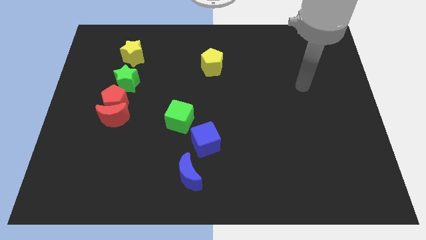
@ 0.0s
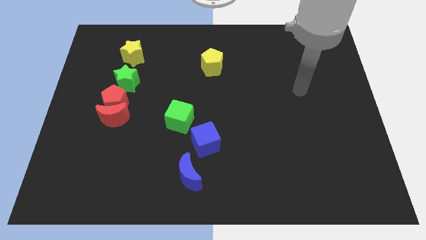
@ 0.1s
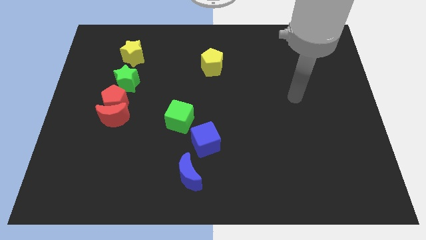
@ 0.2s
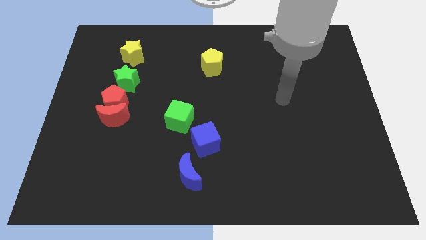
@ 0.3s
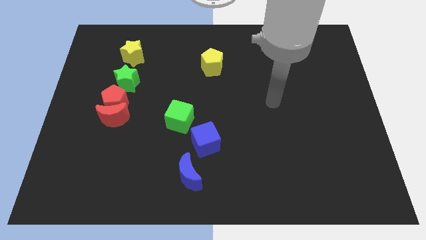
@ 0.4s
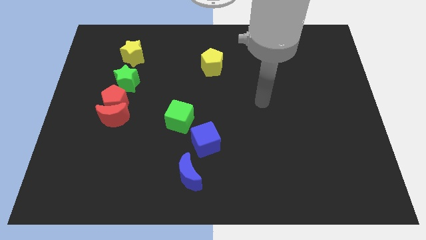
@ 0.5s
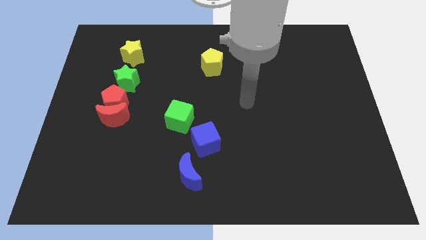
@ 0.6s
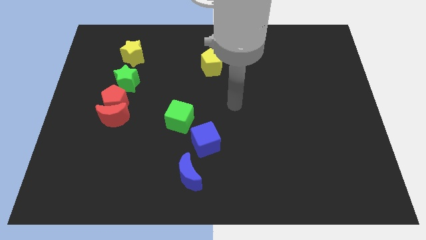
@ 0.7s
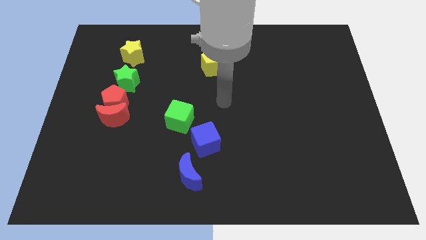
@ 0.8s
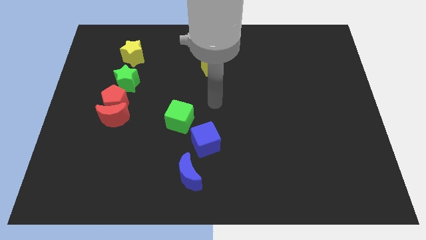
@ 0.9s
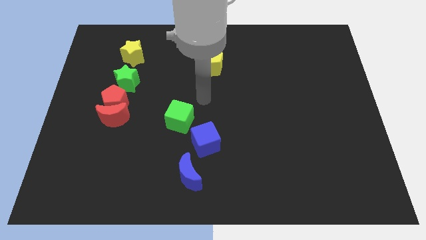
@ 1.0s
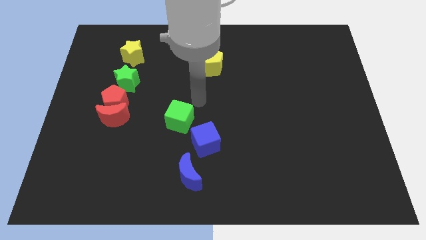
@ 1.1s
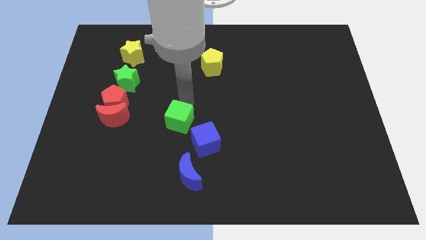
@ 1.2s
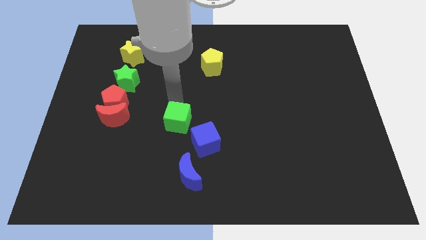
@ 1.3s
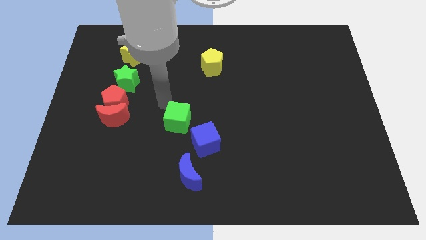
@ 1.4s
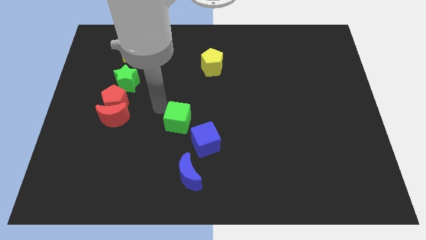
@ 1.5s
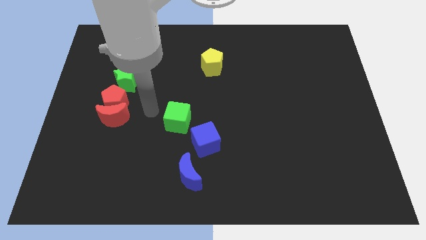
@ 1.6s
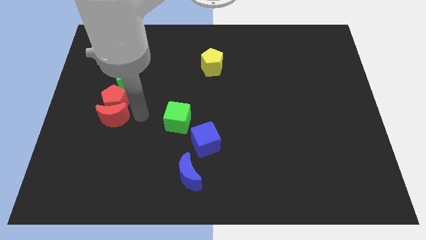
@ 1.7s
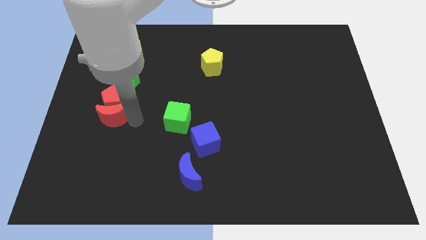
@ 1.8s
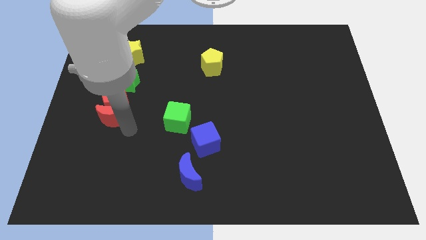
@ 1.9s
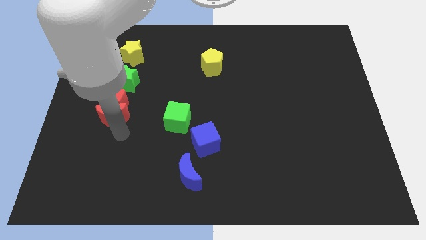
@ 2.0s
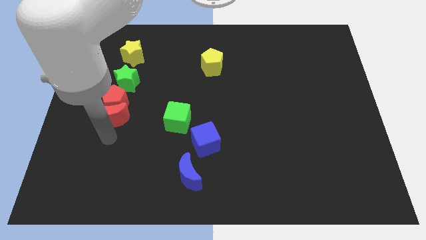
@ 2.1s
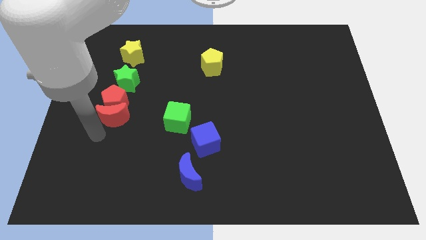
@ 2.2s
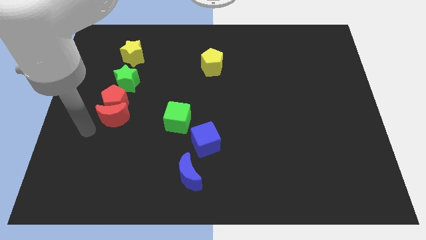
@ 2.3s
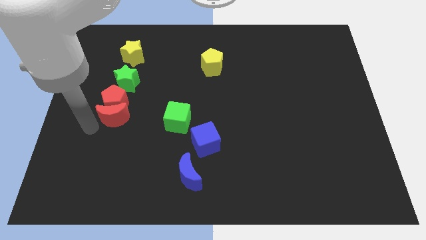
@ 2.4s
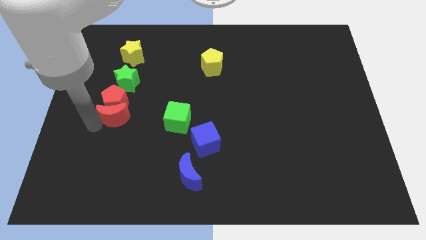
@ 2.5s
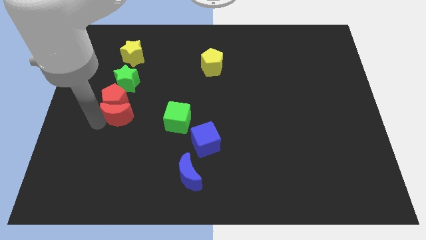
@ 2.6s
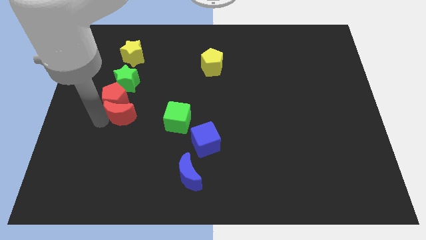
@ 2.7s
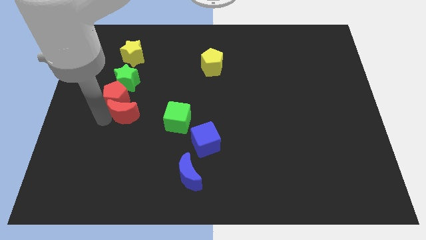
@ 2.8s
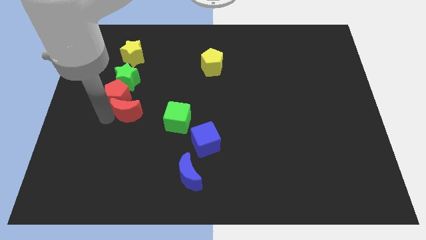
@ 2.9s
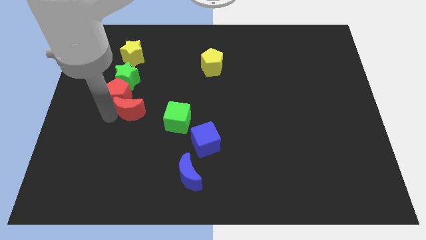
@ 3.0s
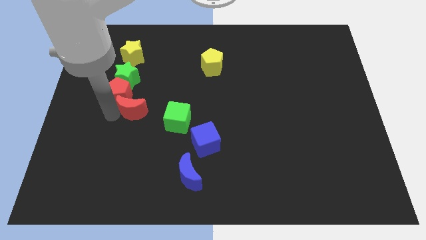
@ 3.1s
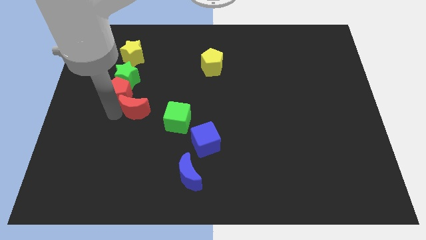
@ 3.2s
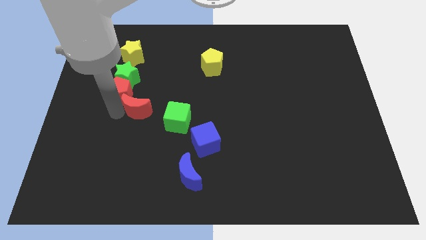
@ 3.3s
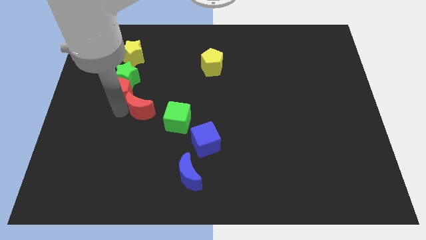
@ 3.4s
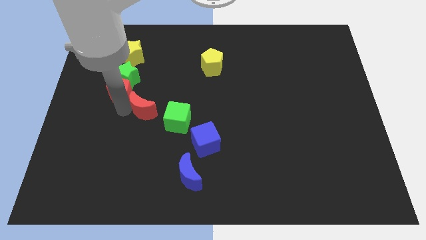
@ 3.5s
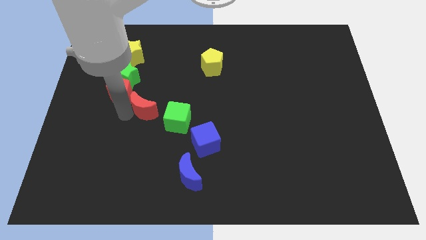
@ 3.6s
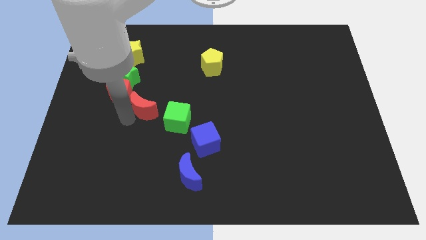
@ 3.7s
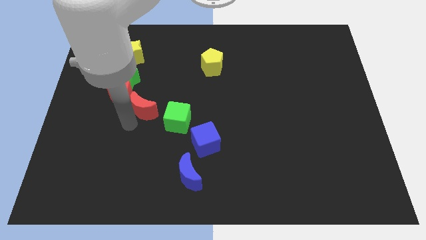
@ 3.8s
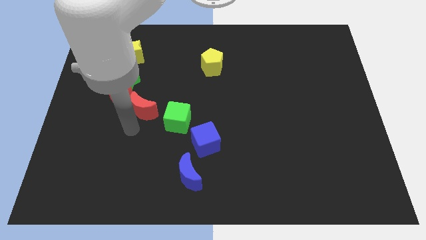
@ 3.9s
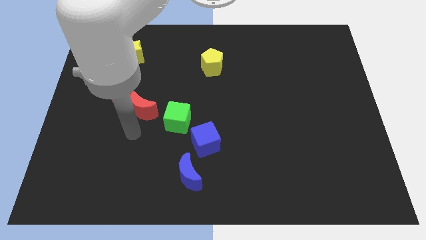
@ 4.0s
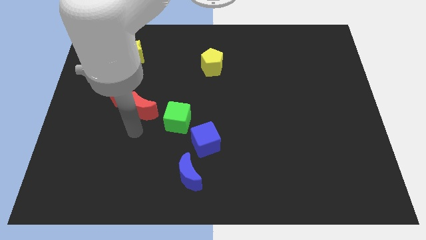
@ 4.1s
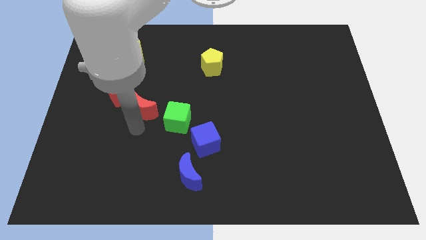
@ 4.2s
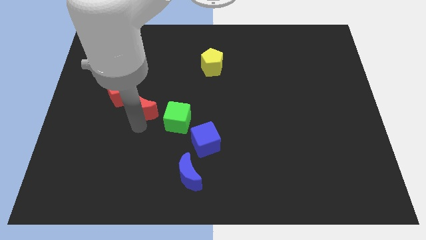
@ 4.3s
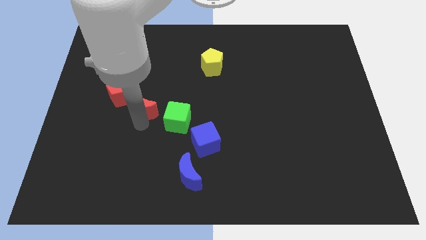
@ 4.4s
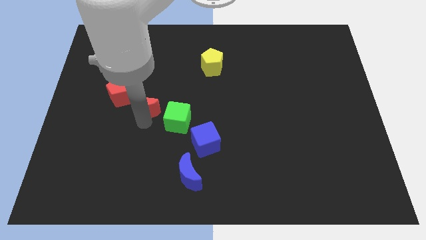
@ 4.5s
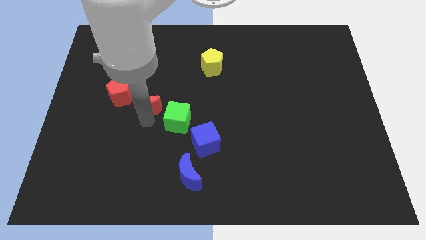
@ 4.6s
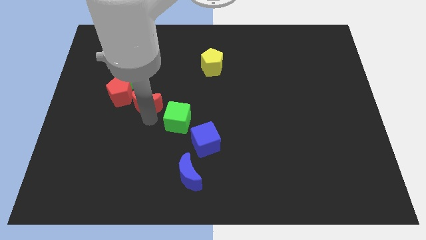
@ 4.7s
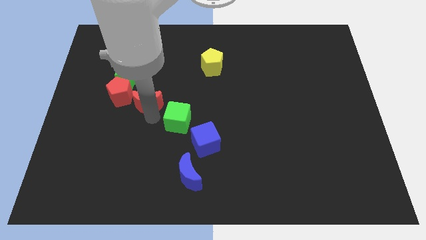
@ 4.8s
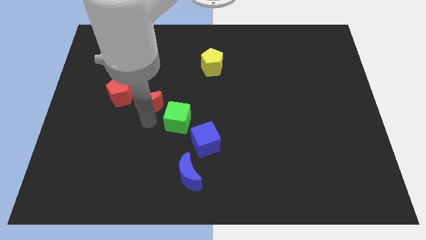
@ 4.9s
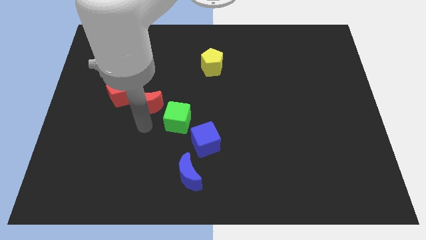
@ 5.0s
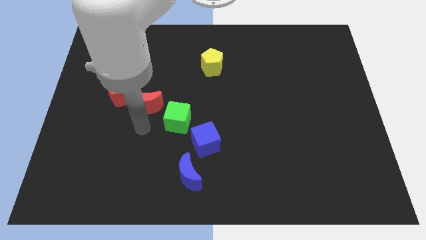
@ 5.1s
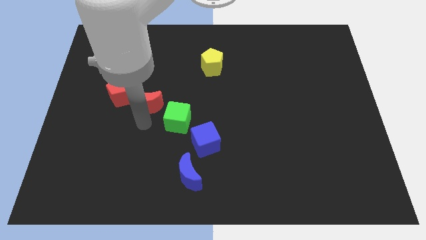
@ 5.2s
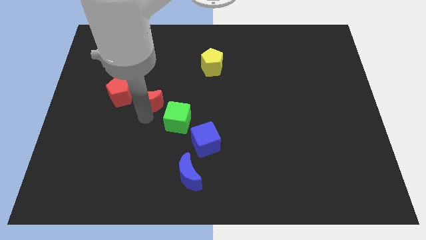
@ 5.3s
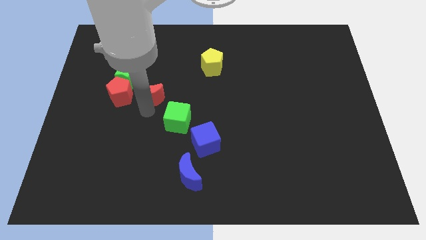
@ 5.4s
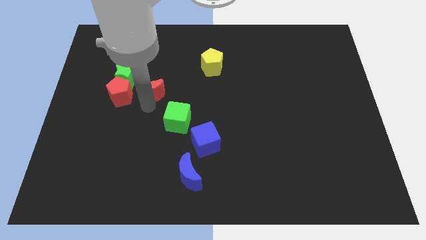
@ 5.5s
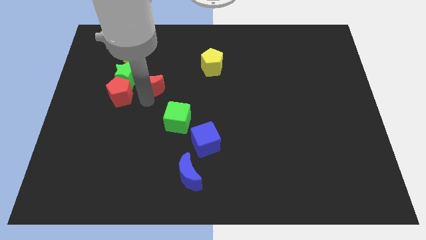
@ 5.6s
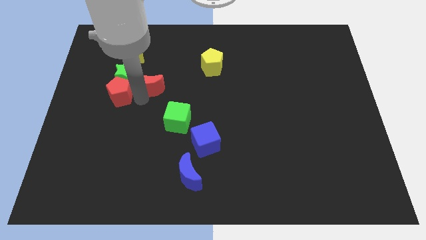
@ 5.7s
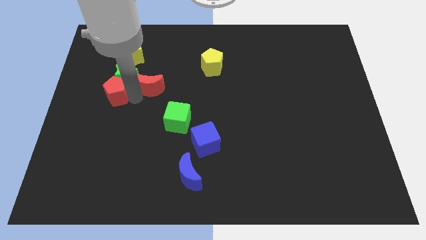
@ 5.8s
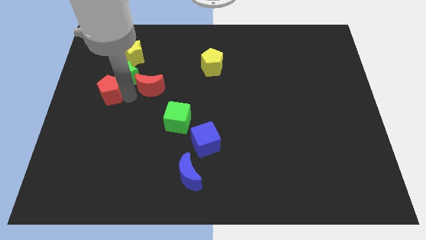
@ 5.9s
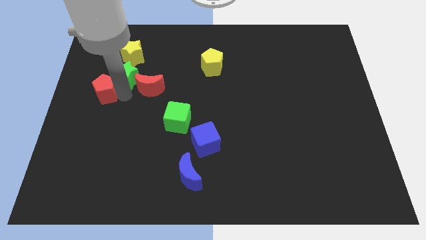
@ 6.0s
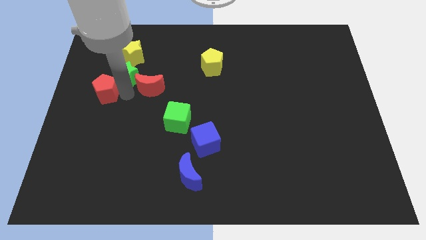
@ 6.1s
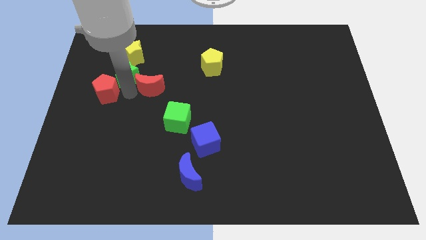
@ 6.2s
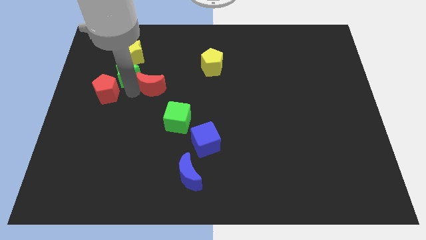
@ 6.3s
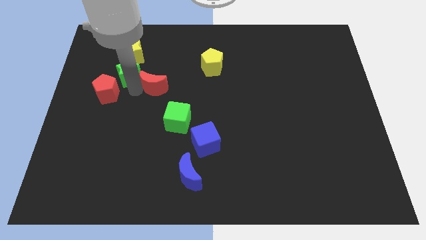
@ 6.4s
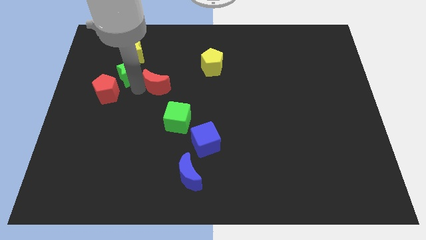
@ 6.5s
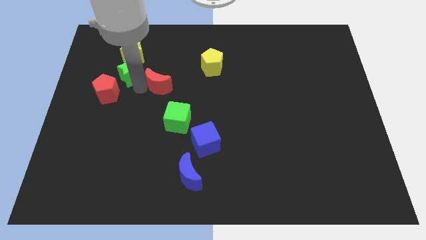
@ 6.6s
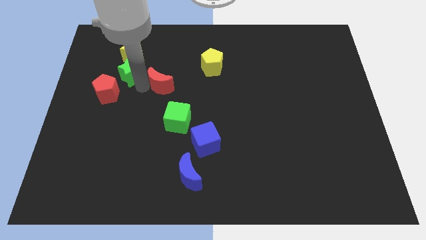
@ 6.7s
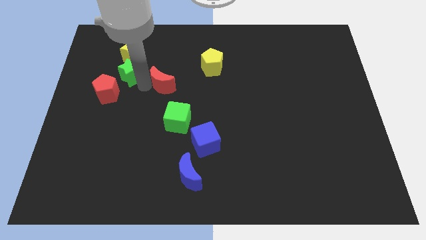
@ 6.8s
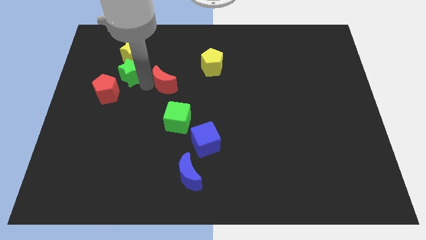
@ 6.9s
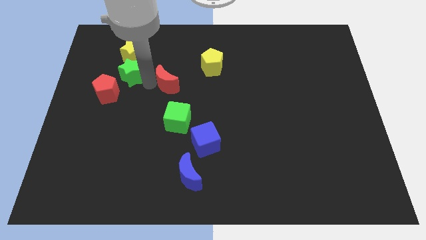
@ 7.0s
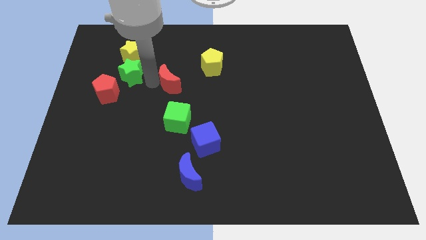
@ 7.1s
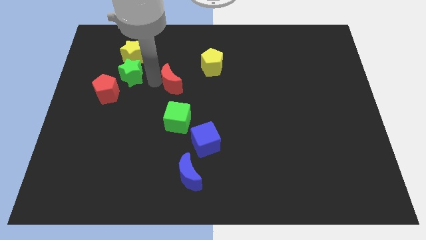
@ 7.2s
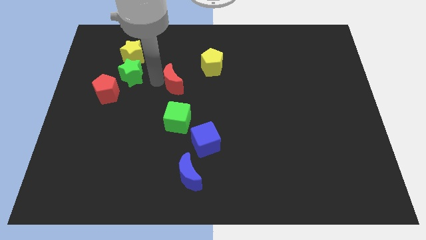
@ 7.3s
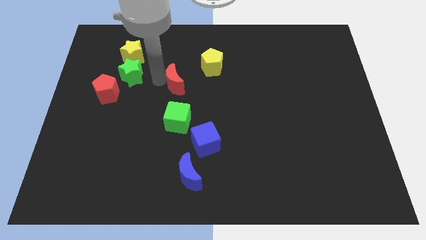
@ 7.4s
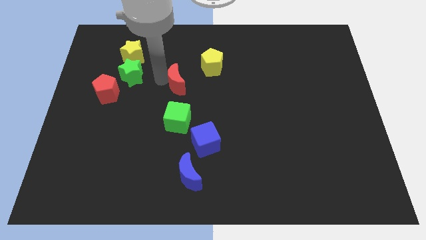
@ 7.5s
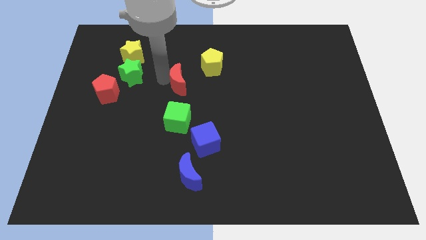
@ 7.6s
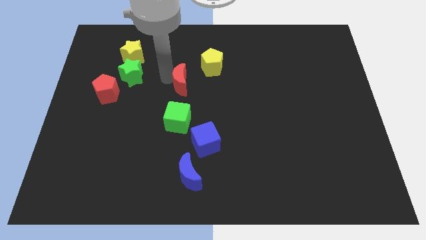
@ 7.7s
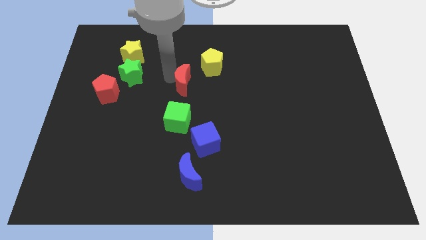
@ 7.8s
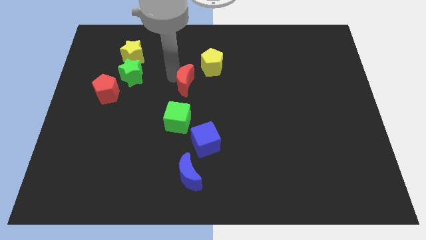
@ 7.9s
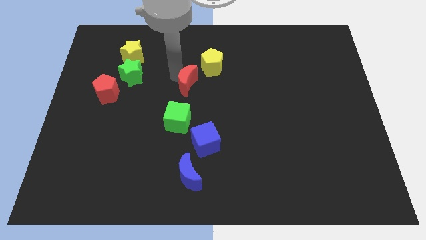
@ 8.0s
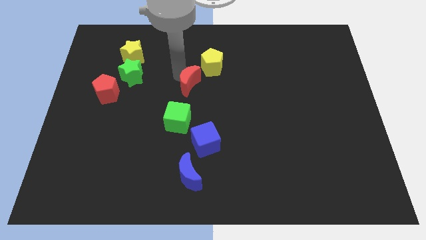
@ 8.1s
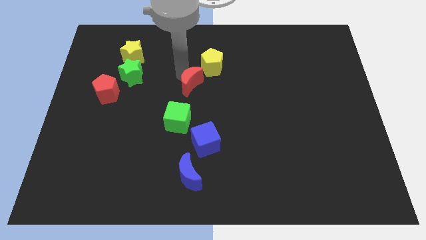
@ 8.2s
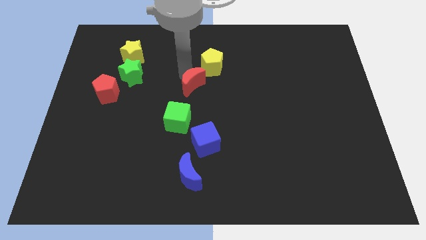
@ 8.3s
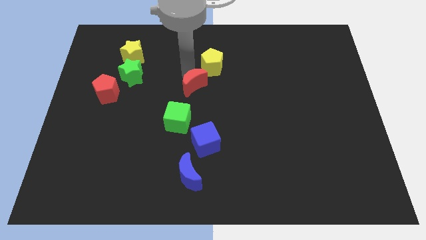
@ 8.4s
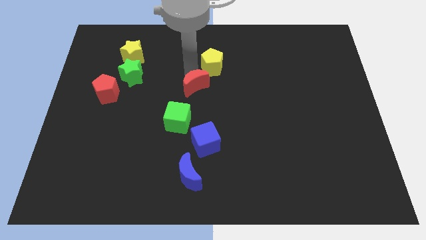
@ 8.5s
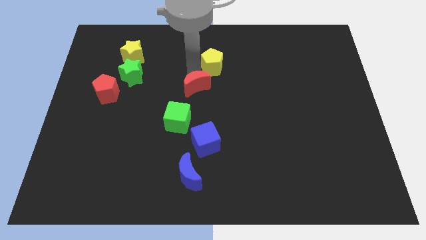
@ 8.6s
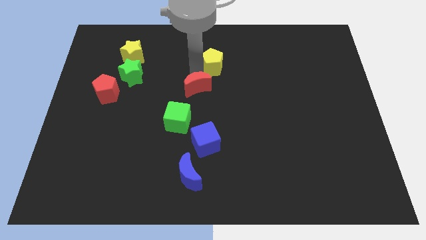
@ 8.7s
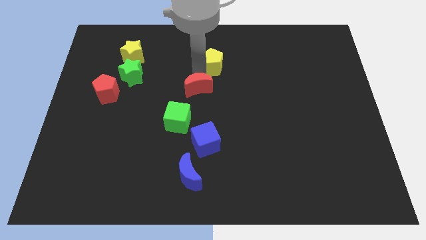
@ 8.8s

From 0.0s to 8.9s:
slide the red moon to the top of the blue cube

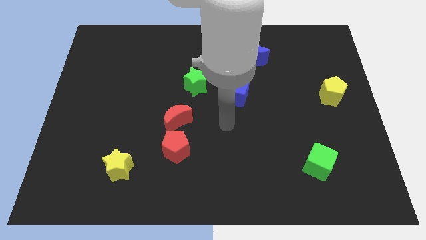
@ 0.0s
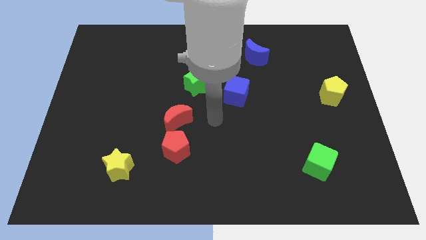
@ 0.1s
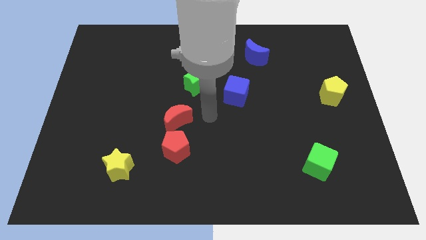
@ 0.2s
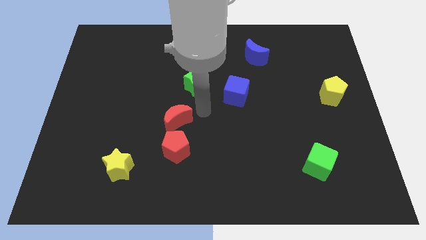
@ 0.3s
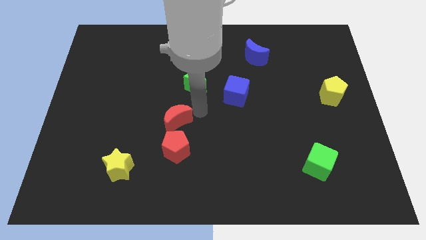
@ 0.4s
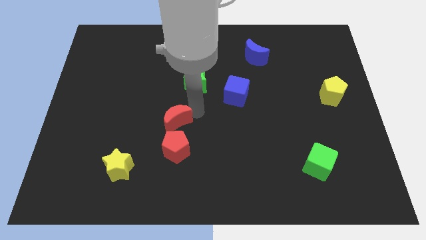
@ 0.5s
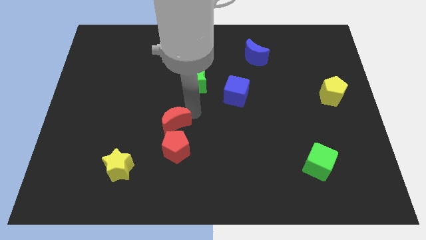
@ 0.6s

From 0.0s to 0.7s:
slide the red moon diagonally up and to the left of the red pentagon
